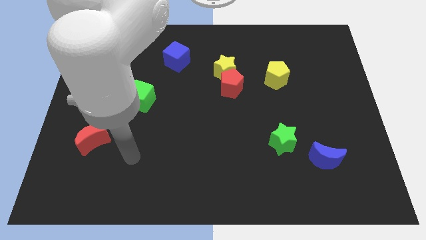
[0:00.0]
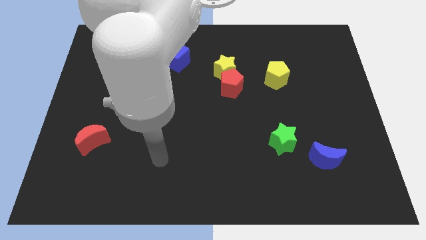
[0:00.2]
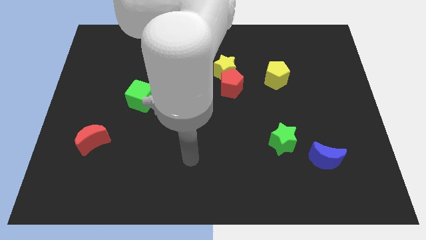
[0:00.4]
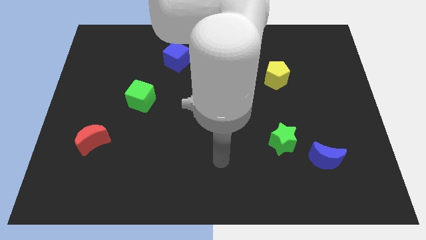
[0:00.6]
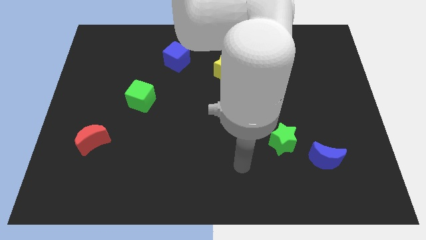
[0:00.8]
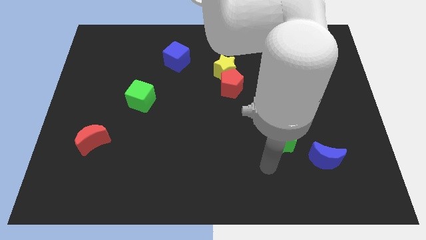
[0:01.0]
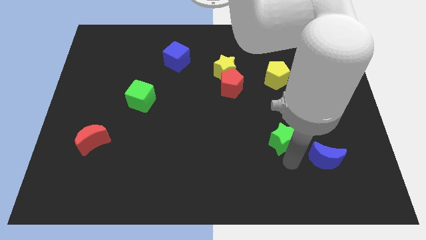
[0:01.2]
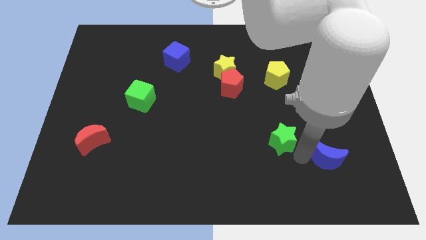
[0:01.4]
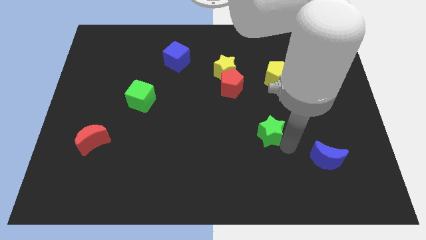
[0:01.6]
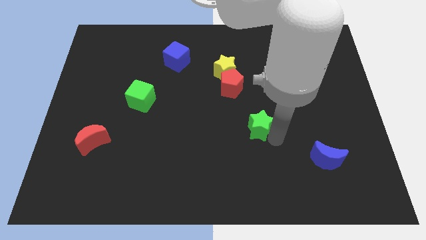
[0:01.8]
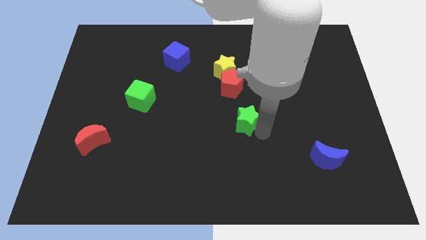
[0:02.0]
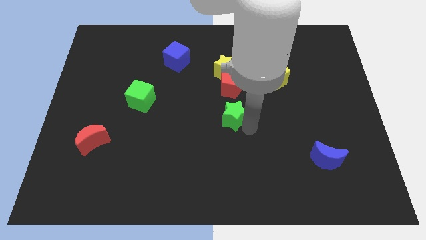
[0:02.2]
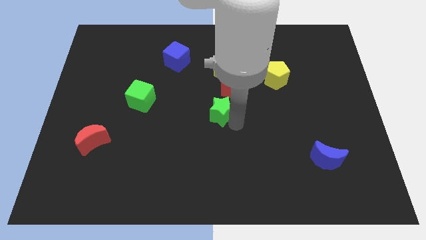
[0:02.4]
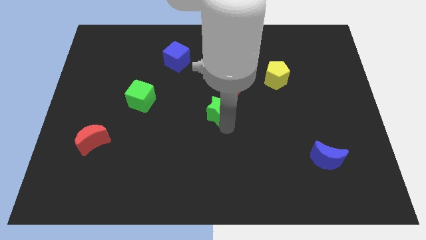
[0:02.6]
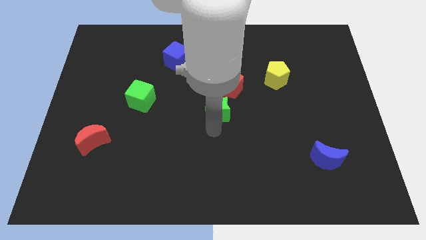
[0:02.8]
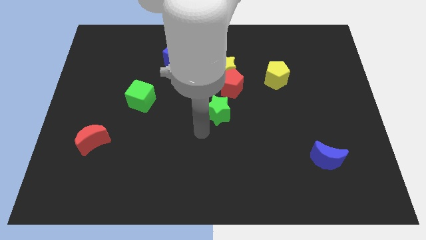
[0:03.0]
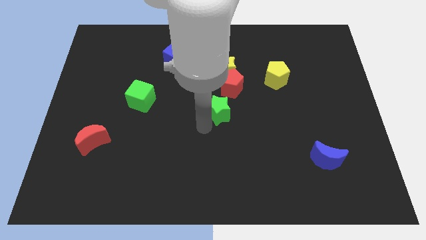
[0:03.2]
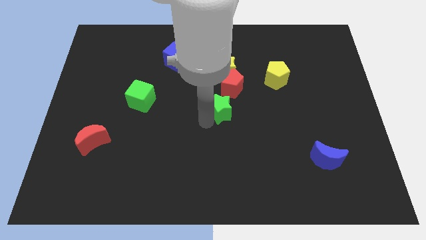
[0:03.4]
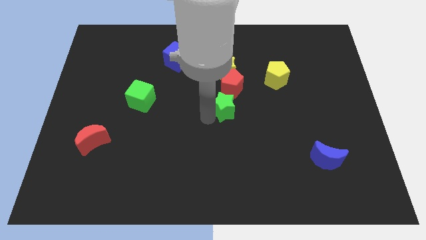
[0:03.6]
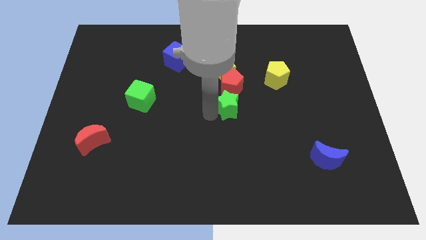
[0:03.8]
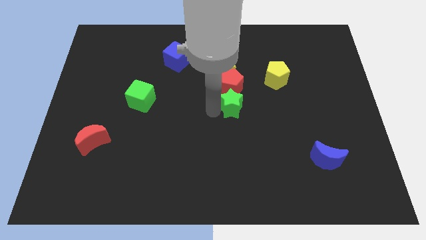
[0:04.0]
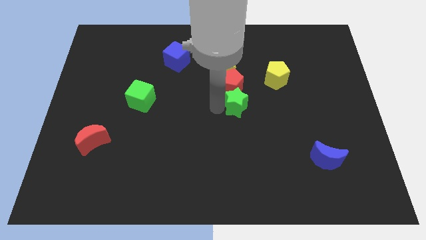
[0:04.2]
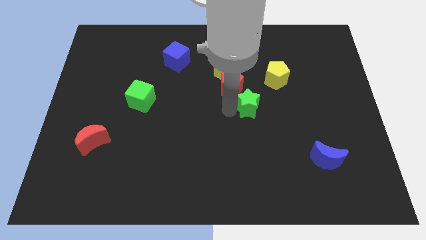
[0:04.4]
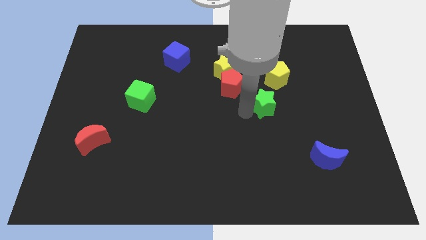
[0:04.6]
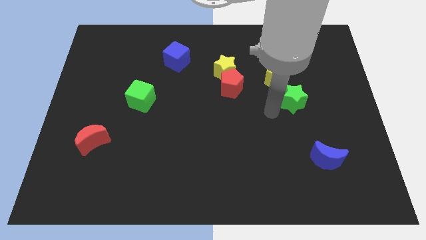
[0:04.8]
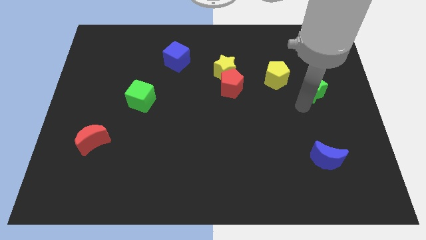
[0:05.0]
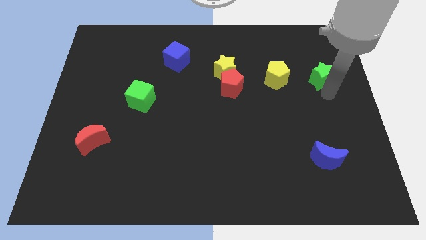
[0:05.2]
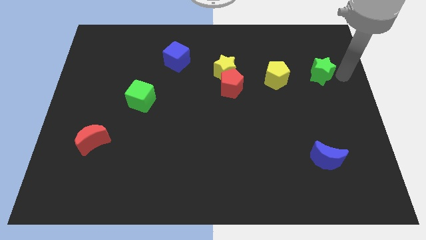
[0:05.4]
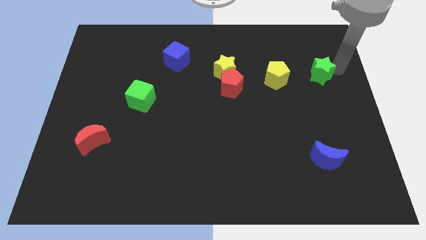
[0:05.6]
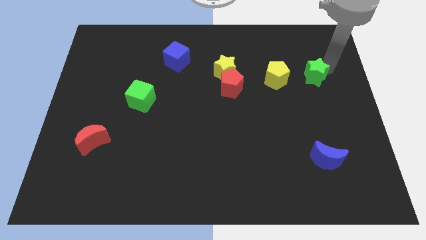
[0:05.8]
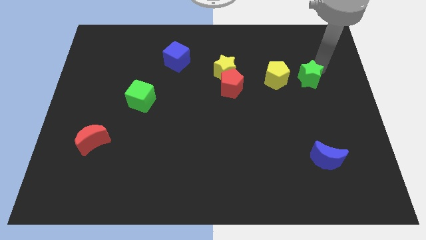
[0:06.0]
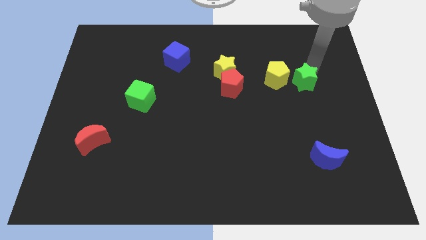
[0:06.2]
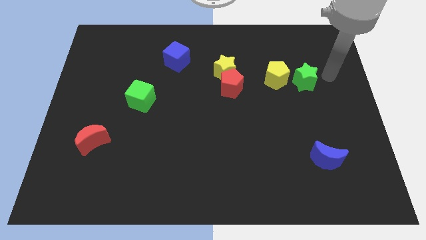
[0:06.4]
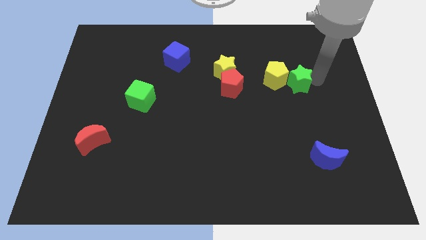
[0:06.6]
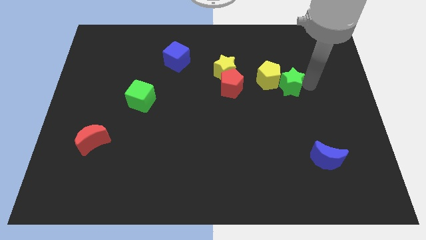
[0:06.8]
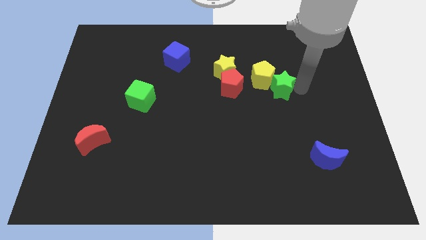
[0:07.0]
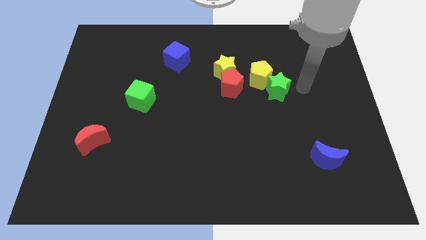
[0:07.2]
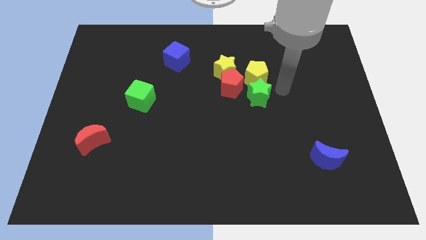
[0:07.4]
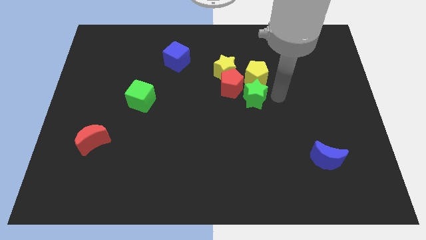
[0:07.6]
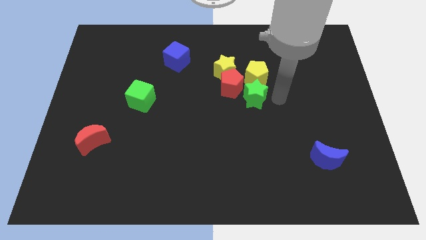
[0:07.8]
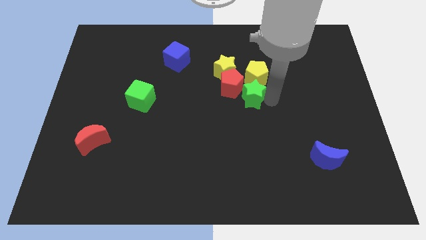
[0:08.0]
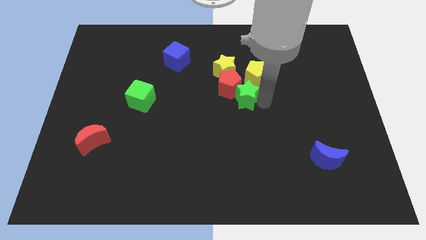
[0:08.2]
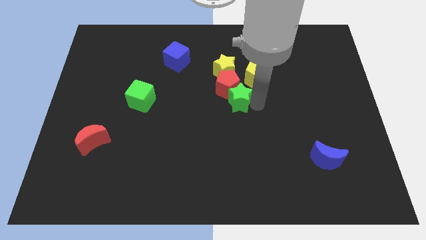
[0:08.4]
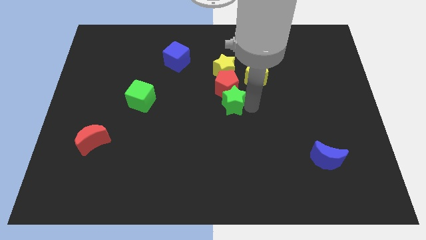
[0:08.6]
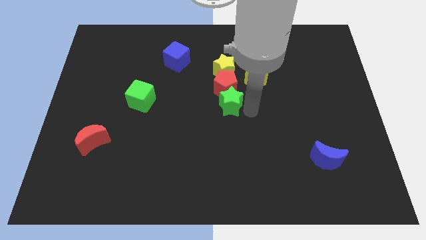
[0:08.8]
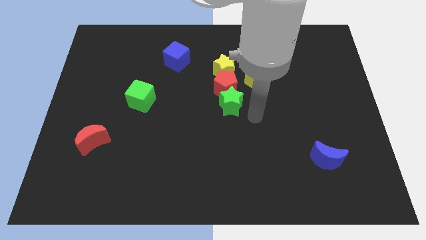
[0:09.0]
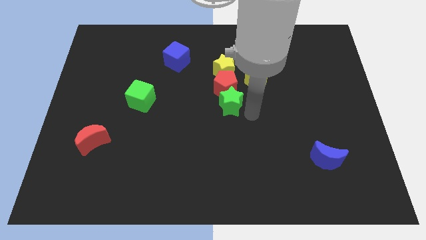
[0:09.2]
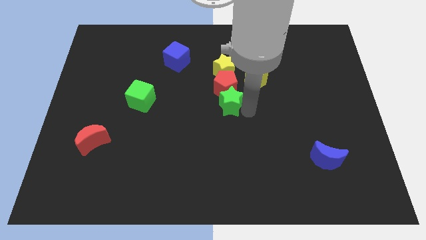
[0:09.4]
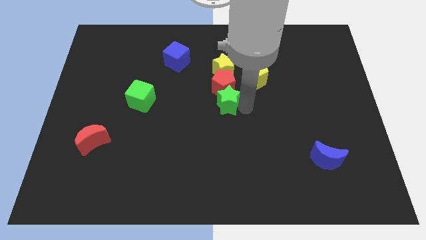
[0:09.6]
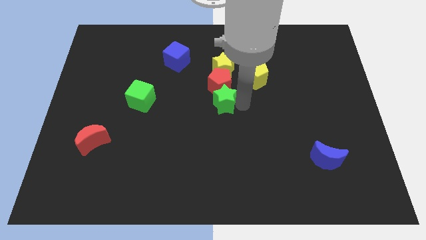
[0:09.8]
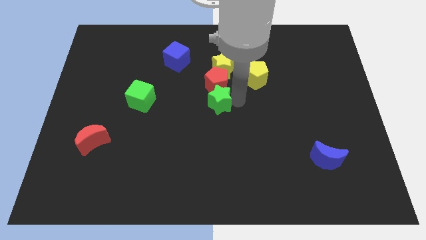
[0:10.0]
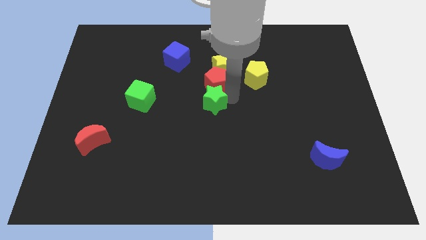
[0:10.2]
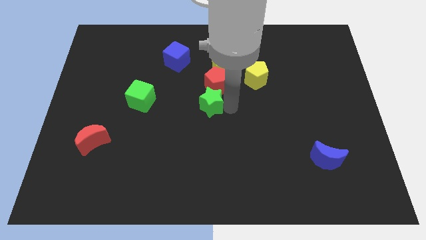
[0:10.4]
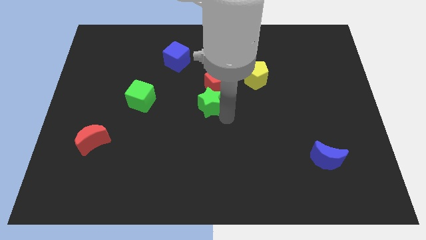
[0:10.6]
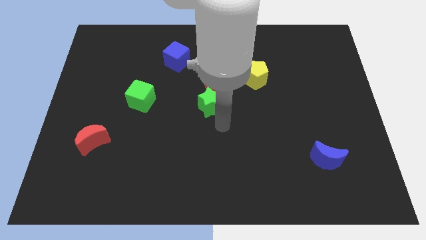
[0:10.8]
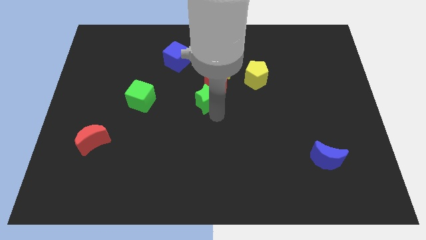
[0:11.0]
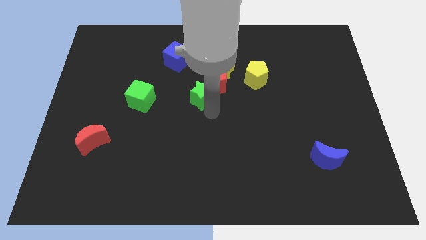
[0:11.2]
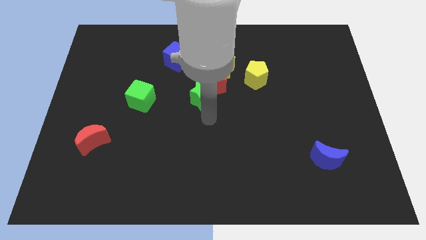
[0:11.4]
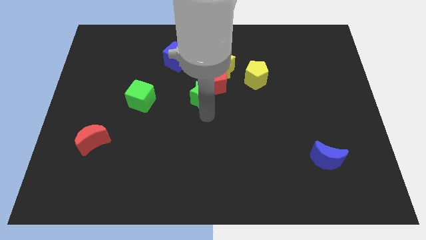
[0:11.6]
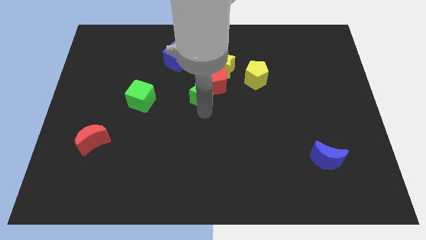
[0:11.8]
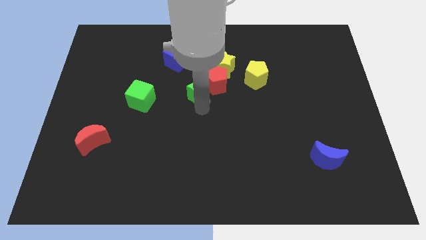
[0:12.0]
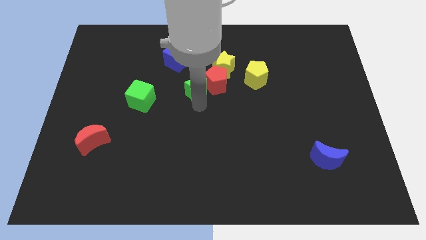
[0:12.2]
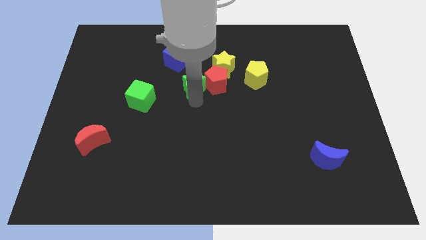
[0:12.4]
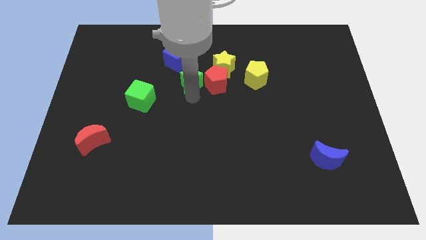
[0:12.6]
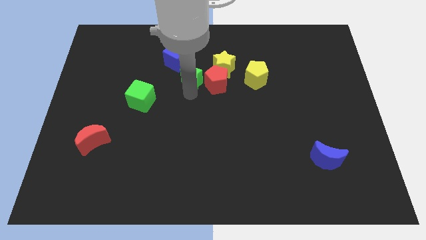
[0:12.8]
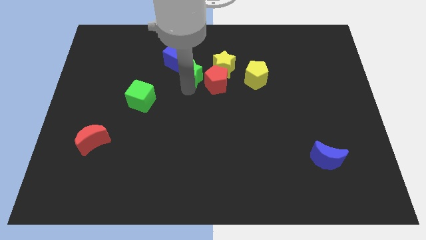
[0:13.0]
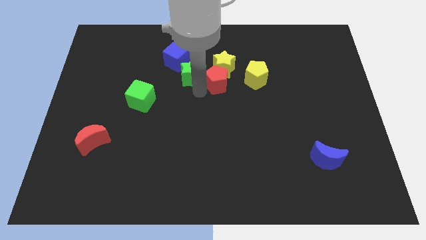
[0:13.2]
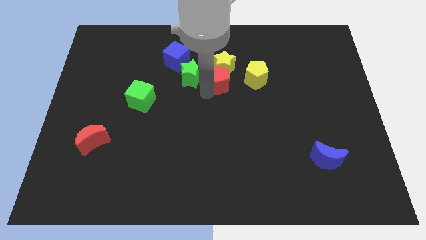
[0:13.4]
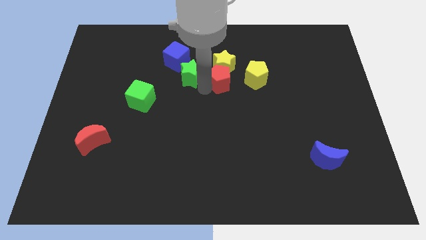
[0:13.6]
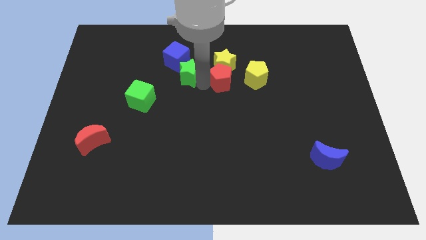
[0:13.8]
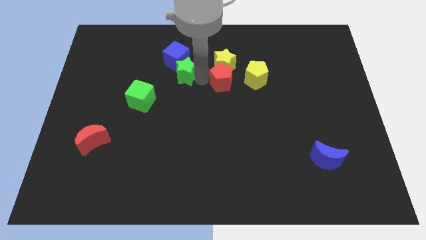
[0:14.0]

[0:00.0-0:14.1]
put the green star close to the blue cube

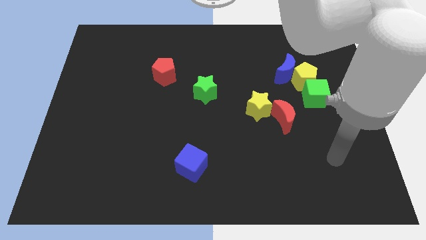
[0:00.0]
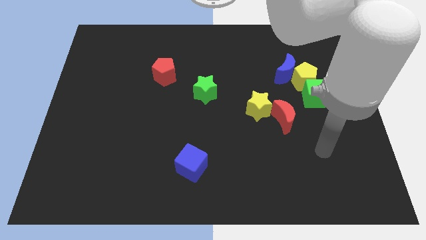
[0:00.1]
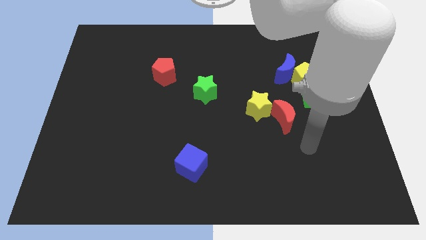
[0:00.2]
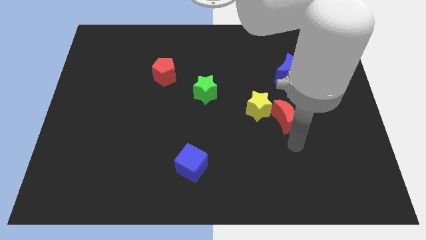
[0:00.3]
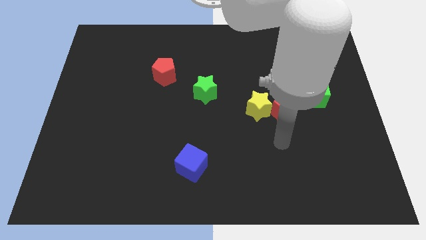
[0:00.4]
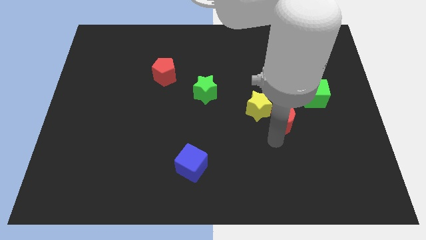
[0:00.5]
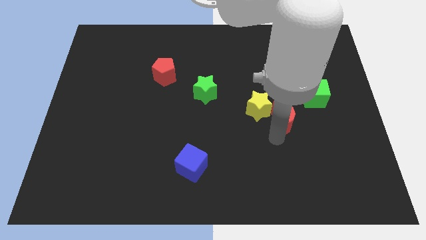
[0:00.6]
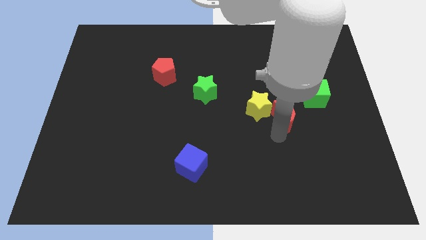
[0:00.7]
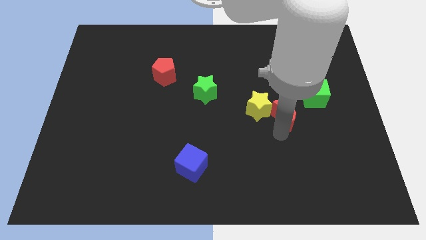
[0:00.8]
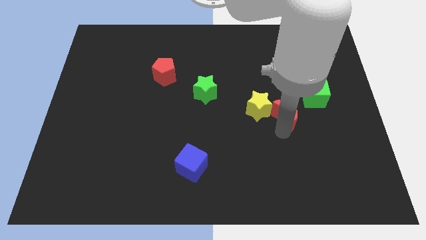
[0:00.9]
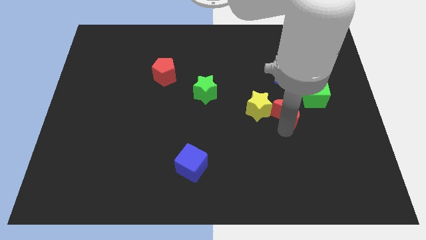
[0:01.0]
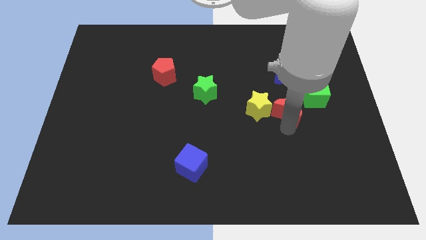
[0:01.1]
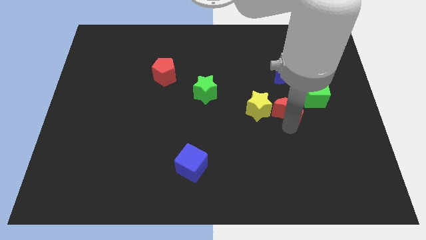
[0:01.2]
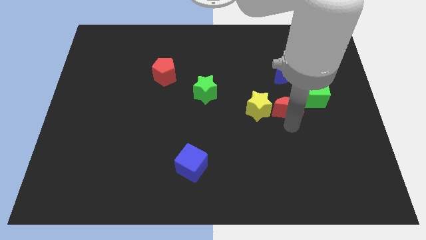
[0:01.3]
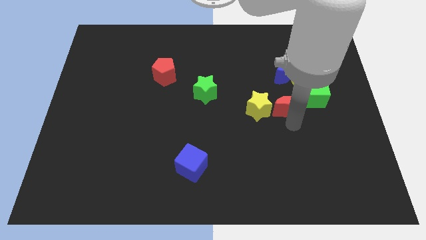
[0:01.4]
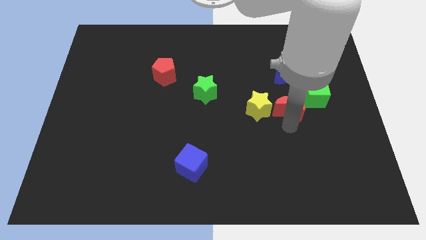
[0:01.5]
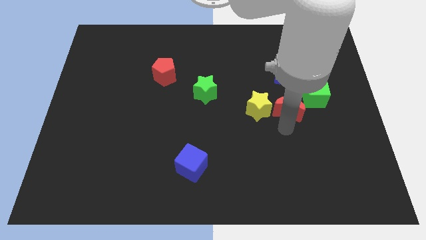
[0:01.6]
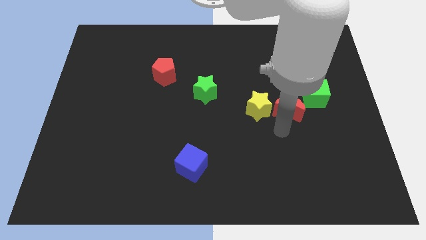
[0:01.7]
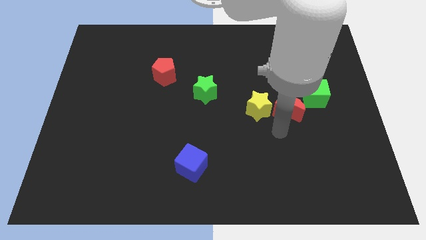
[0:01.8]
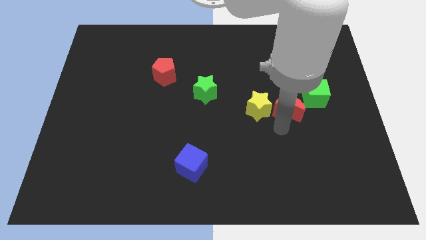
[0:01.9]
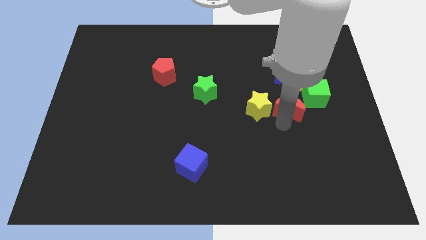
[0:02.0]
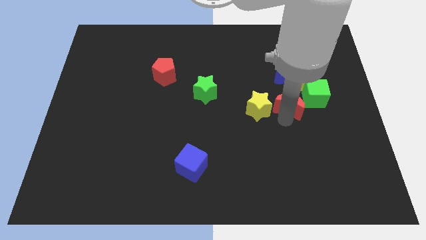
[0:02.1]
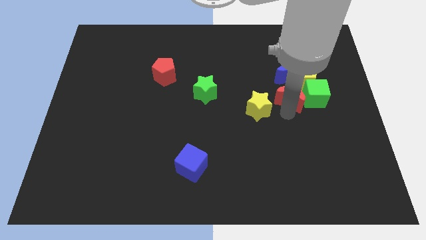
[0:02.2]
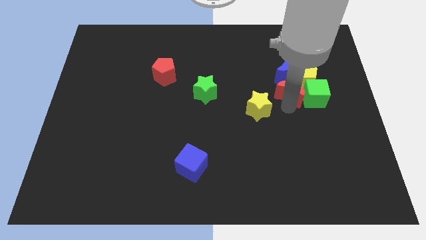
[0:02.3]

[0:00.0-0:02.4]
push the red moon towards the yellow pentagon
